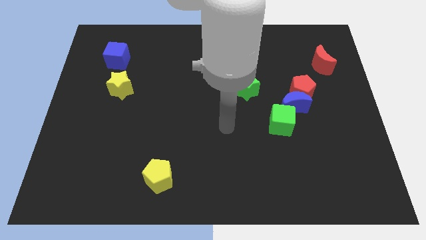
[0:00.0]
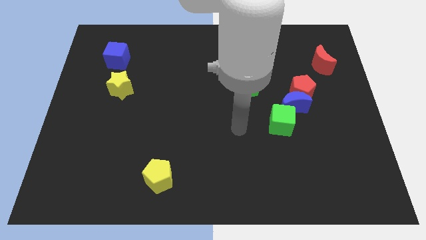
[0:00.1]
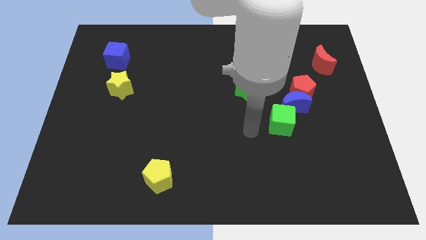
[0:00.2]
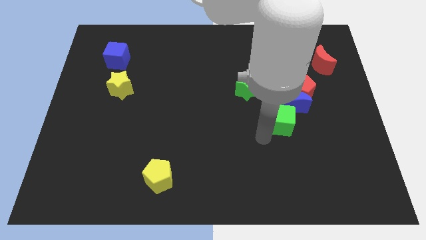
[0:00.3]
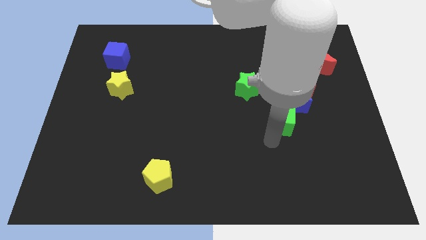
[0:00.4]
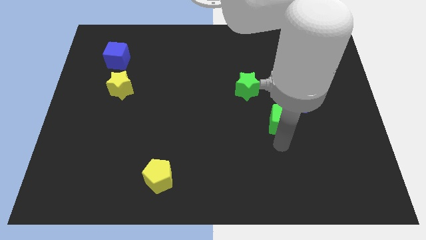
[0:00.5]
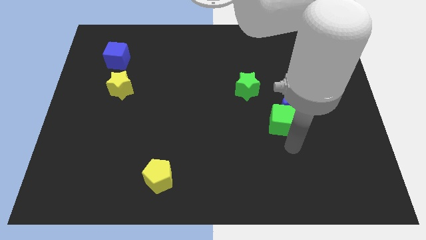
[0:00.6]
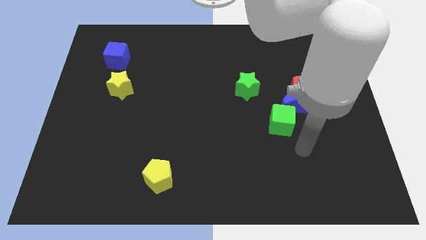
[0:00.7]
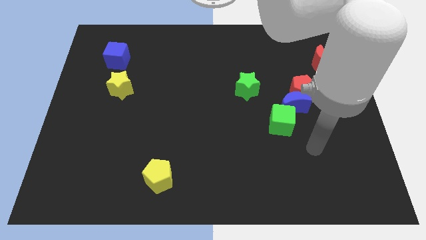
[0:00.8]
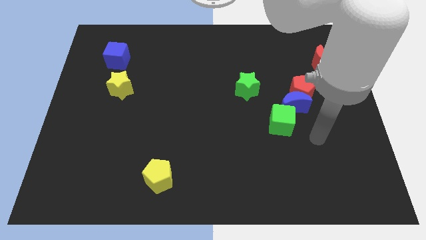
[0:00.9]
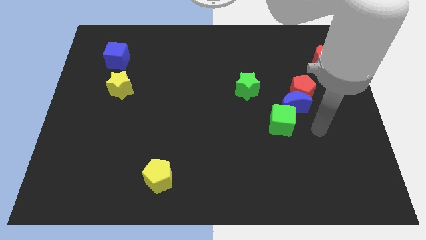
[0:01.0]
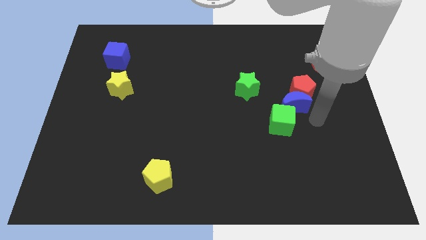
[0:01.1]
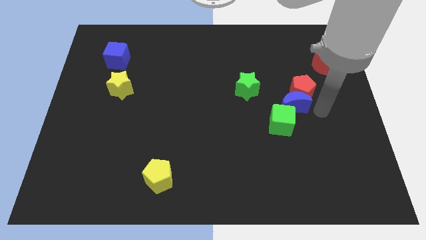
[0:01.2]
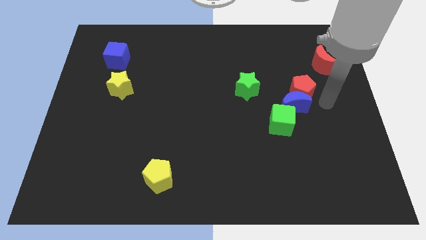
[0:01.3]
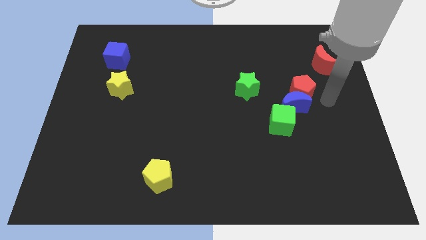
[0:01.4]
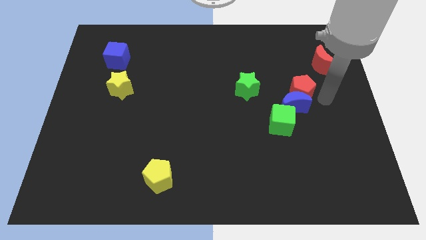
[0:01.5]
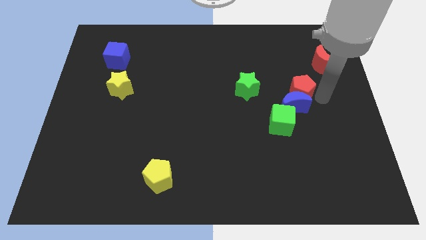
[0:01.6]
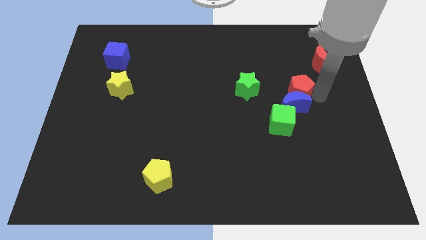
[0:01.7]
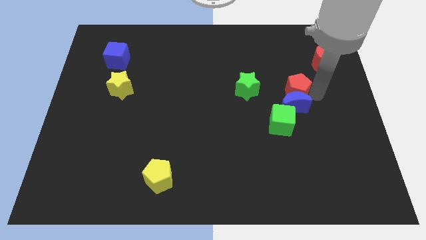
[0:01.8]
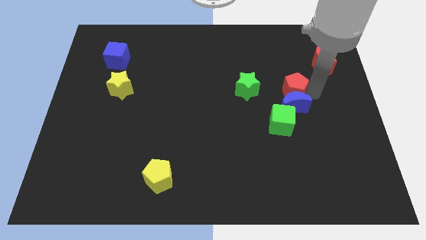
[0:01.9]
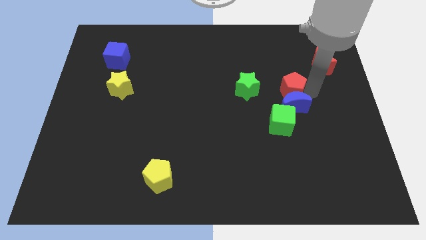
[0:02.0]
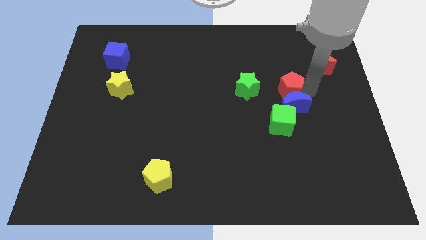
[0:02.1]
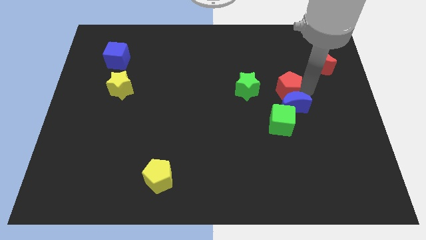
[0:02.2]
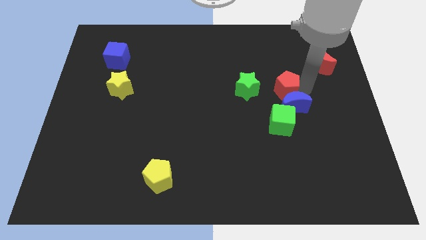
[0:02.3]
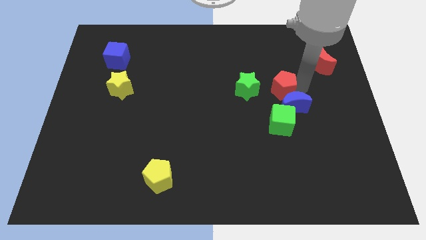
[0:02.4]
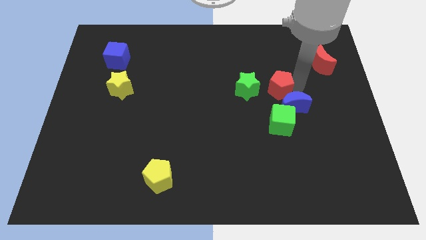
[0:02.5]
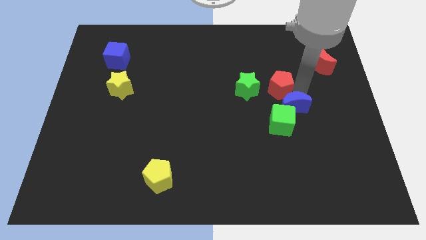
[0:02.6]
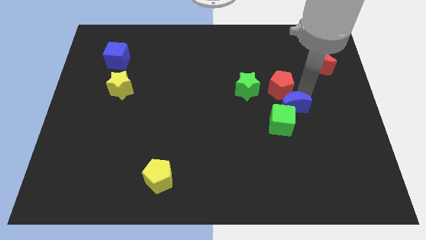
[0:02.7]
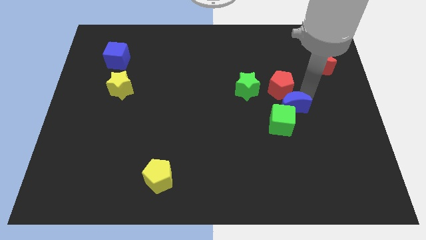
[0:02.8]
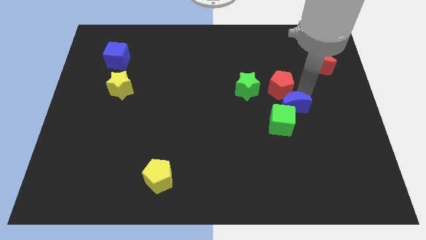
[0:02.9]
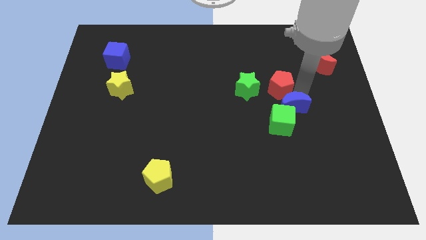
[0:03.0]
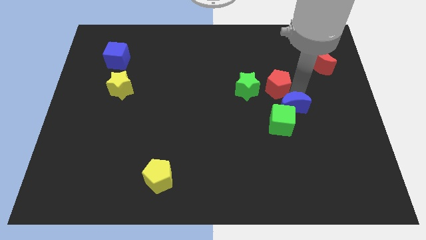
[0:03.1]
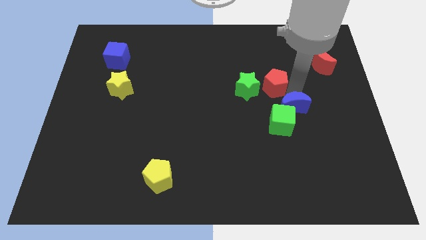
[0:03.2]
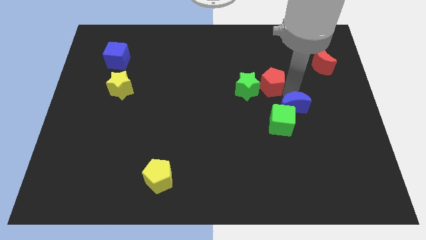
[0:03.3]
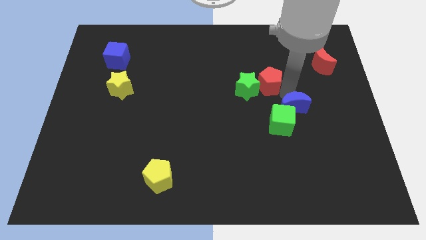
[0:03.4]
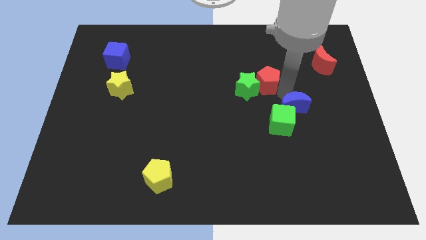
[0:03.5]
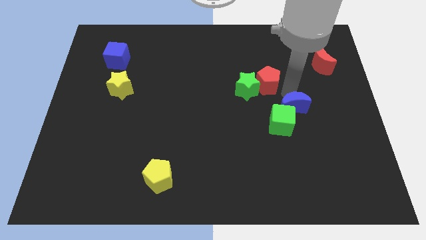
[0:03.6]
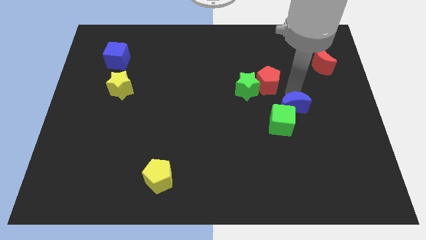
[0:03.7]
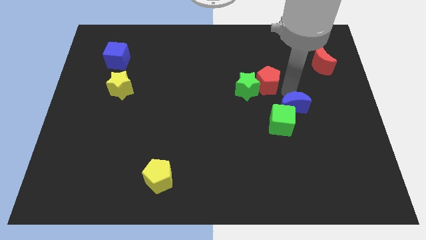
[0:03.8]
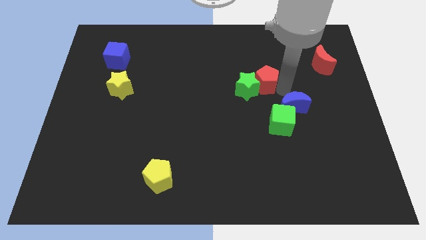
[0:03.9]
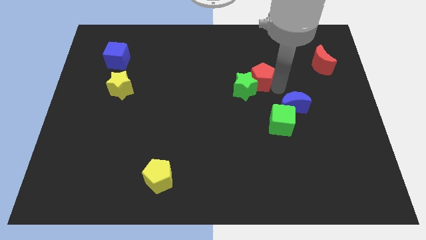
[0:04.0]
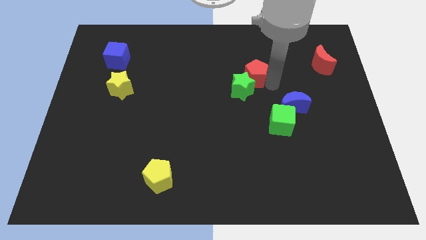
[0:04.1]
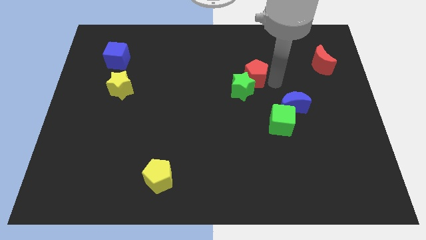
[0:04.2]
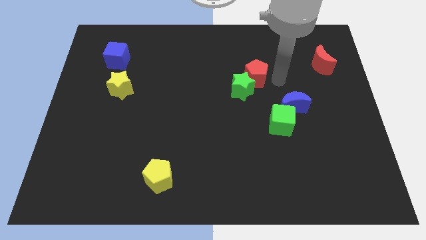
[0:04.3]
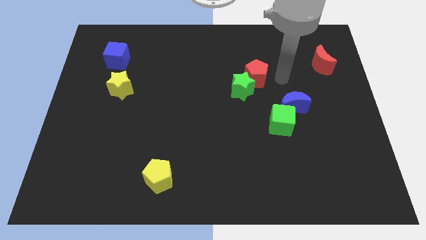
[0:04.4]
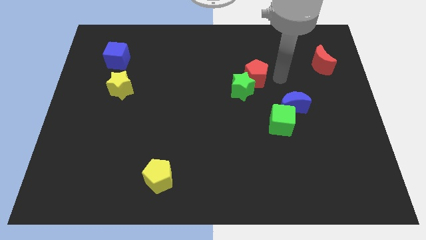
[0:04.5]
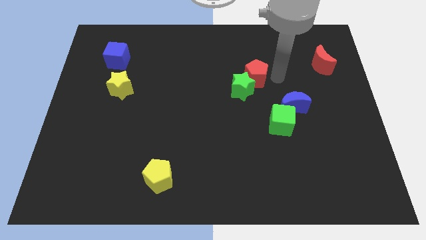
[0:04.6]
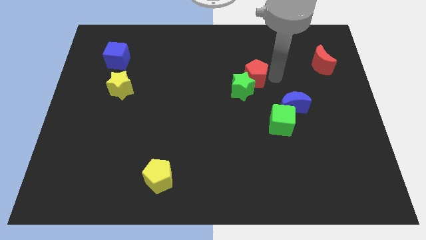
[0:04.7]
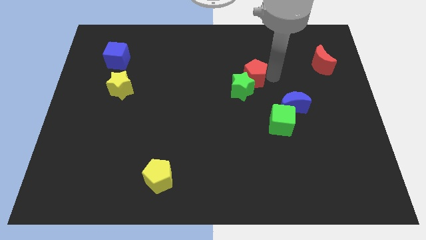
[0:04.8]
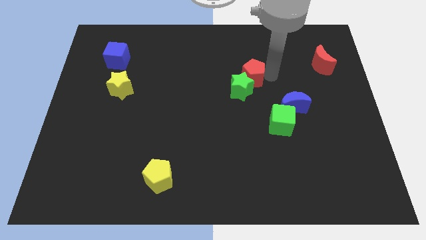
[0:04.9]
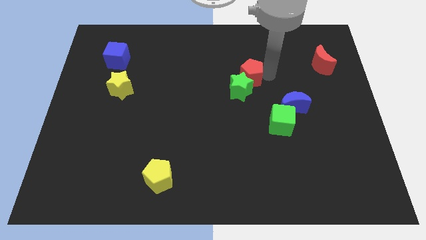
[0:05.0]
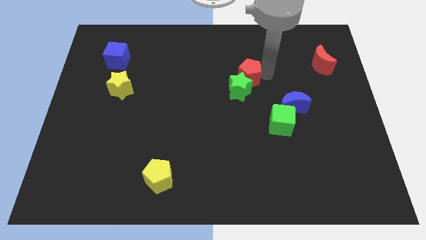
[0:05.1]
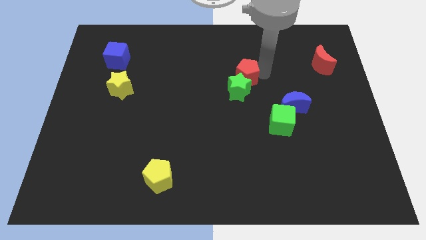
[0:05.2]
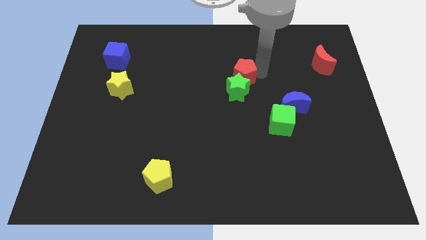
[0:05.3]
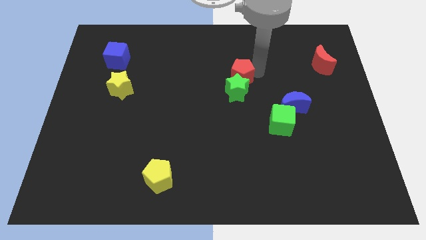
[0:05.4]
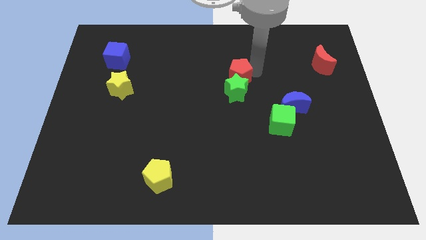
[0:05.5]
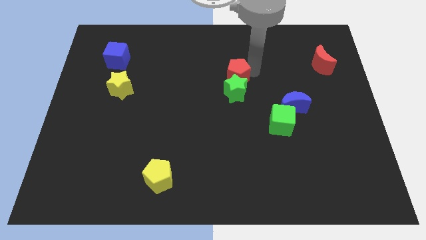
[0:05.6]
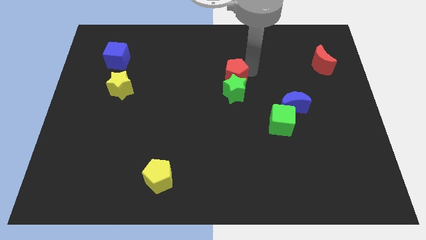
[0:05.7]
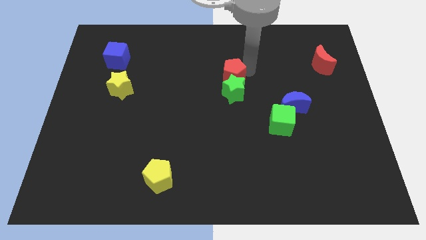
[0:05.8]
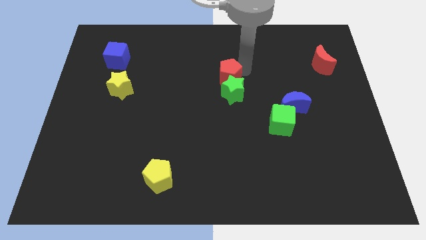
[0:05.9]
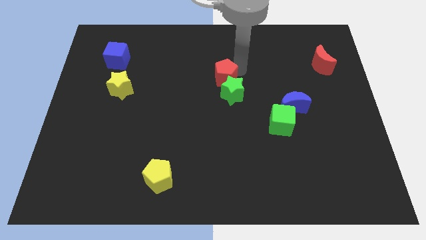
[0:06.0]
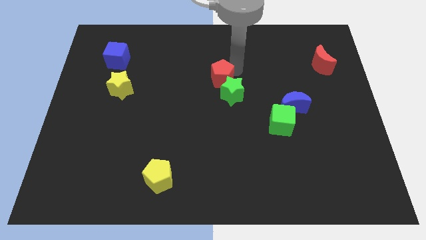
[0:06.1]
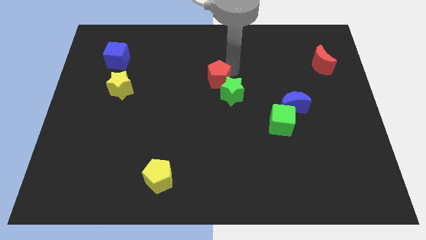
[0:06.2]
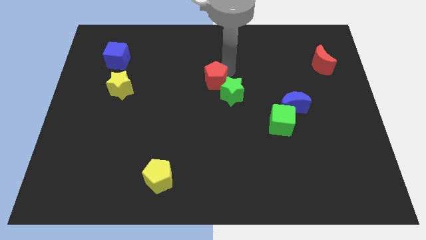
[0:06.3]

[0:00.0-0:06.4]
push the red pentagon to the left side of the green star

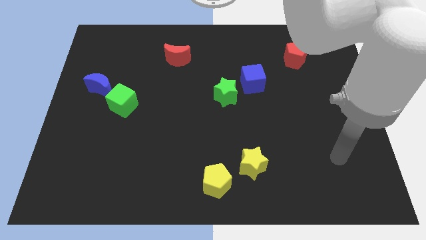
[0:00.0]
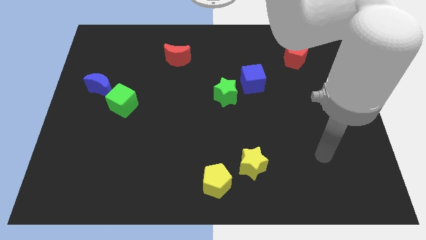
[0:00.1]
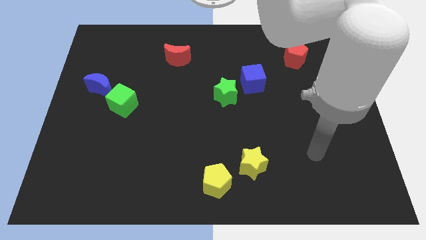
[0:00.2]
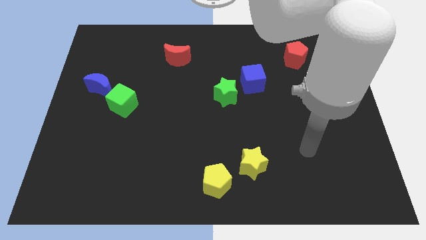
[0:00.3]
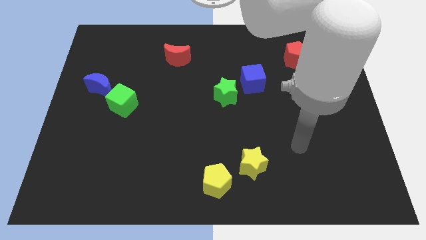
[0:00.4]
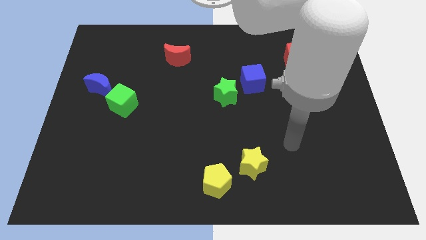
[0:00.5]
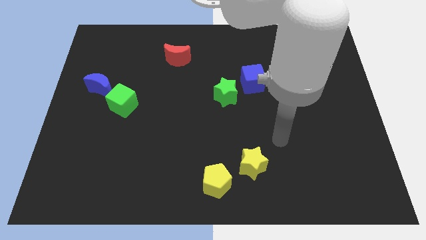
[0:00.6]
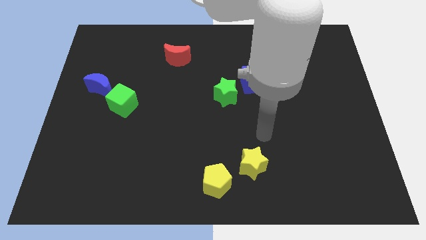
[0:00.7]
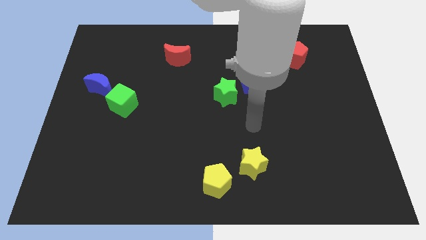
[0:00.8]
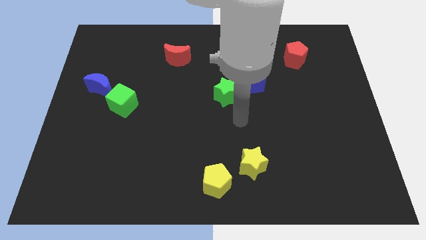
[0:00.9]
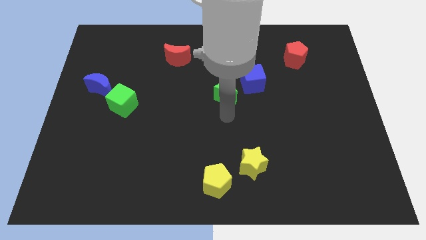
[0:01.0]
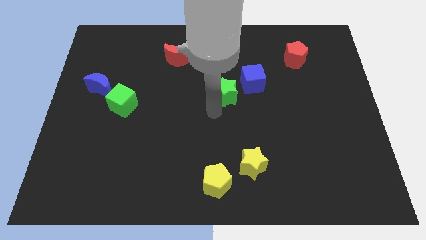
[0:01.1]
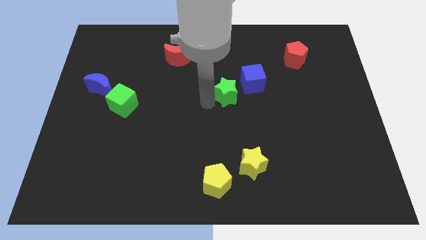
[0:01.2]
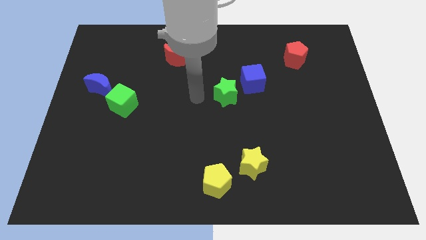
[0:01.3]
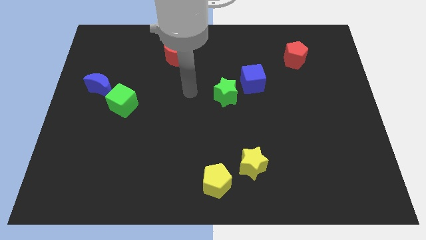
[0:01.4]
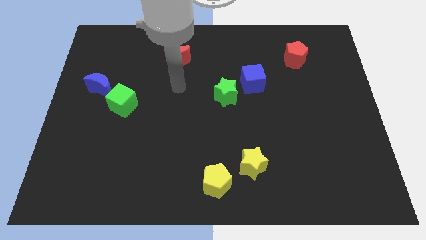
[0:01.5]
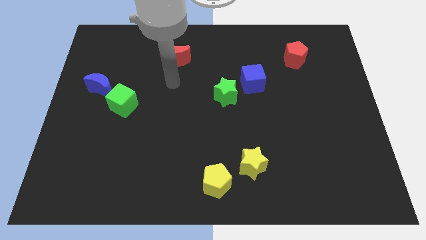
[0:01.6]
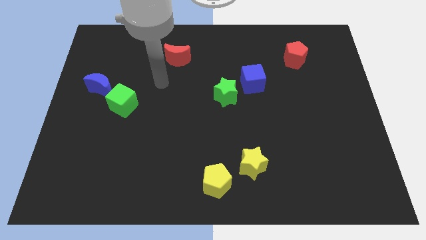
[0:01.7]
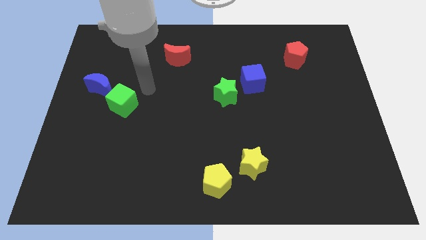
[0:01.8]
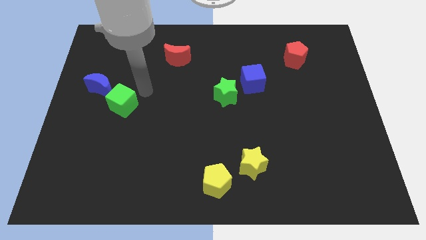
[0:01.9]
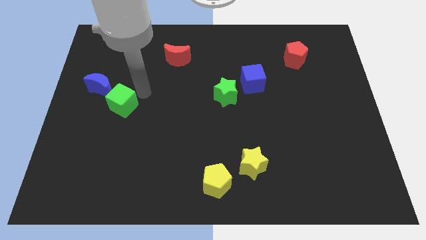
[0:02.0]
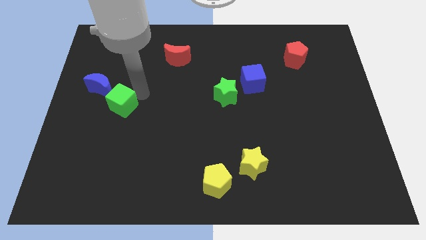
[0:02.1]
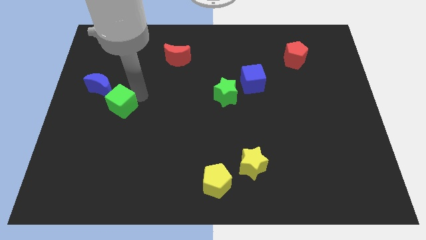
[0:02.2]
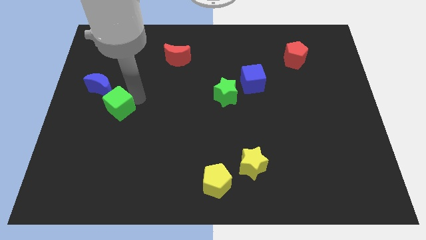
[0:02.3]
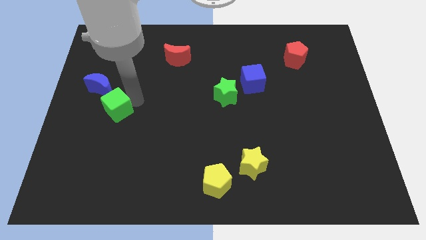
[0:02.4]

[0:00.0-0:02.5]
move the green cube to the bottom of the blue moon
